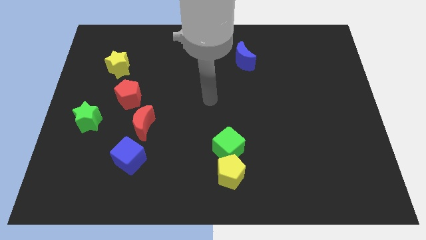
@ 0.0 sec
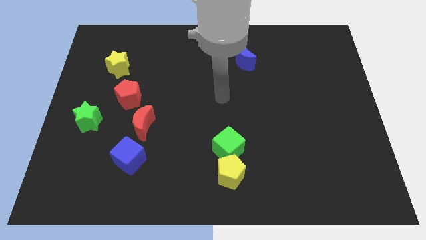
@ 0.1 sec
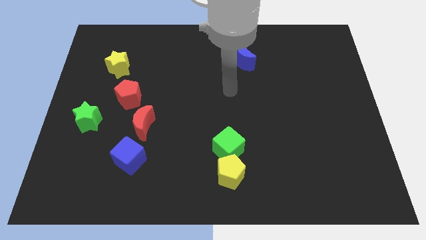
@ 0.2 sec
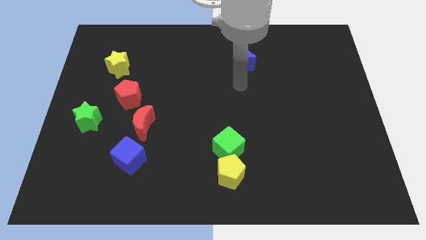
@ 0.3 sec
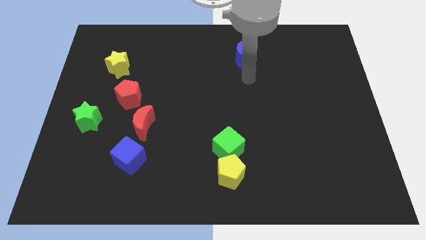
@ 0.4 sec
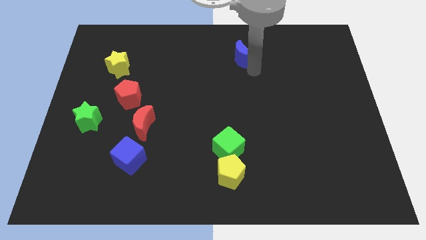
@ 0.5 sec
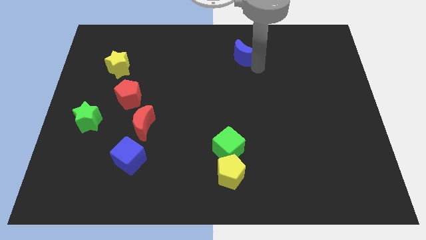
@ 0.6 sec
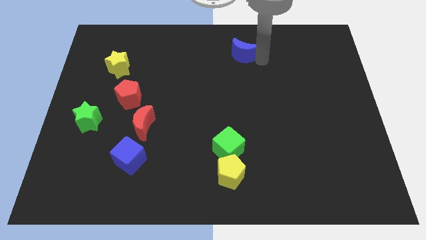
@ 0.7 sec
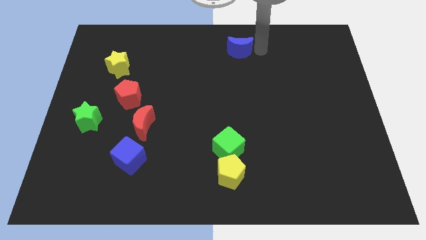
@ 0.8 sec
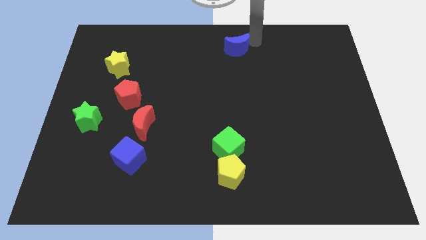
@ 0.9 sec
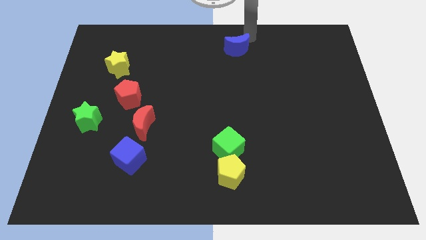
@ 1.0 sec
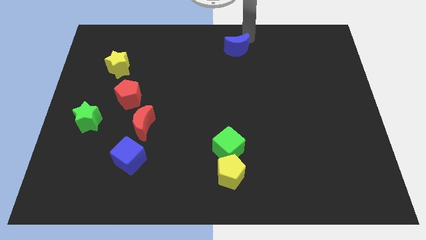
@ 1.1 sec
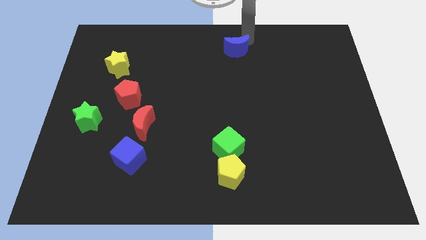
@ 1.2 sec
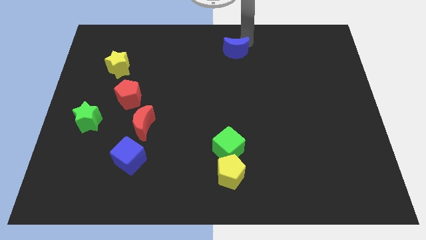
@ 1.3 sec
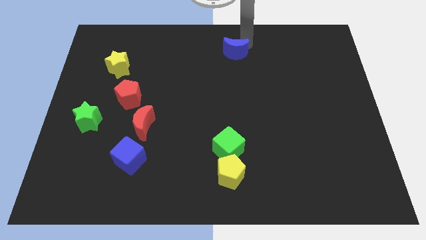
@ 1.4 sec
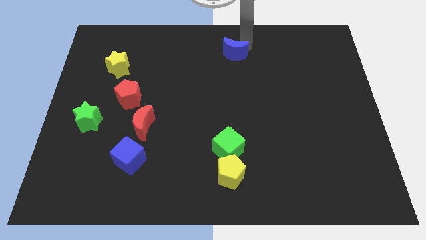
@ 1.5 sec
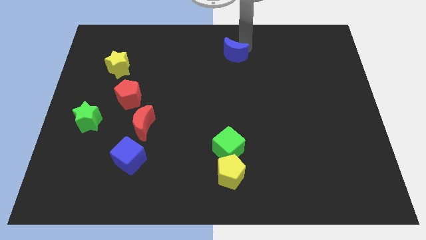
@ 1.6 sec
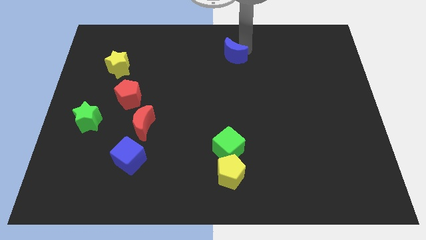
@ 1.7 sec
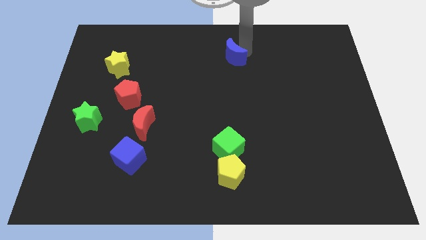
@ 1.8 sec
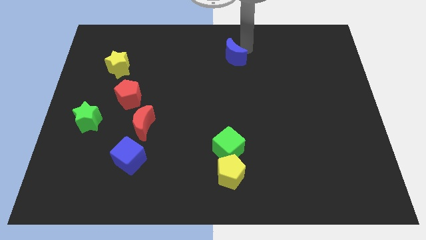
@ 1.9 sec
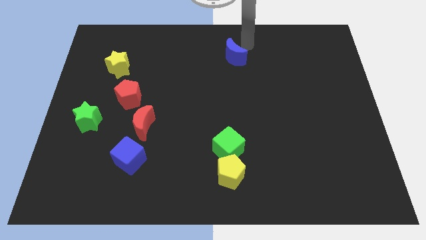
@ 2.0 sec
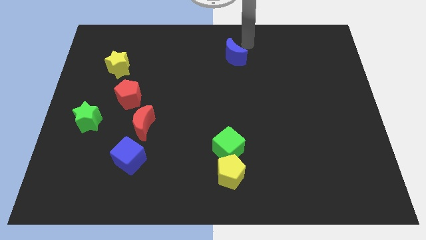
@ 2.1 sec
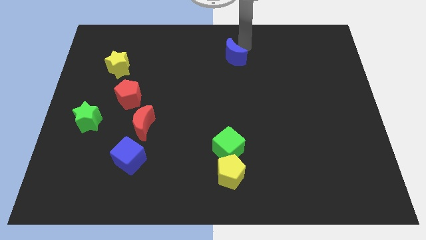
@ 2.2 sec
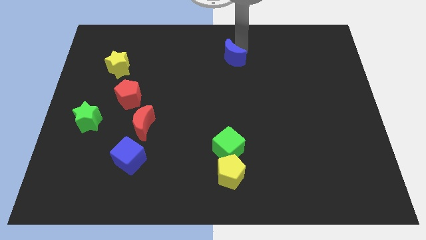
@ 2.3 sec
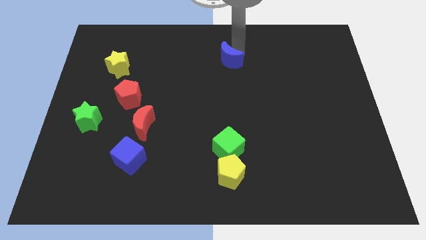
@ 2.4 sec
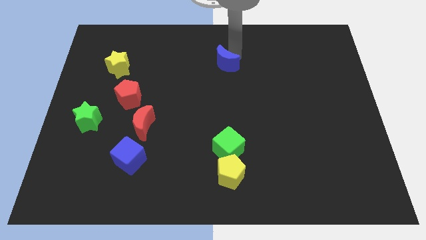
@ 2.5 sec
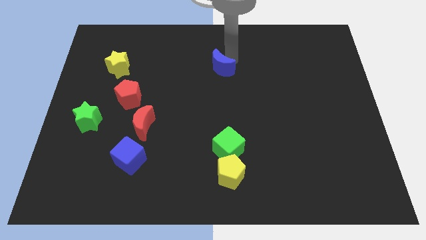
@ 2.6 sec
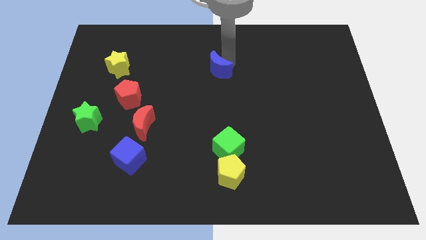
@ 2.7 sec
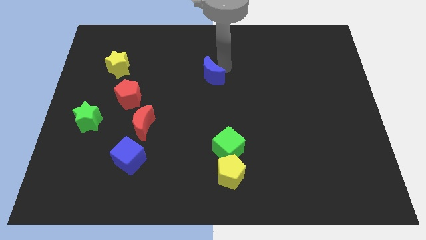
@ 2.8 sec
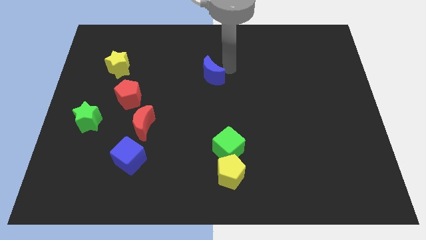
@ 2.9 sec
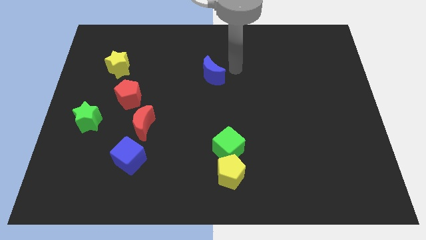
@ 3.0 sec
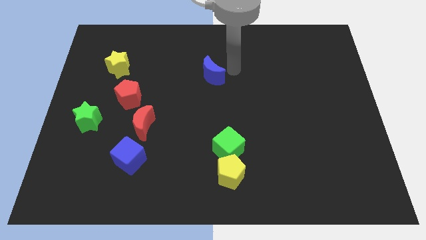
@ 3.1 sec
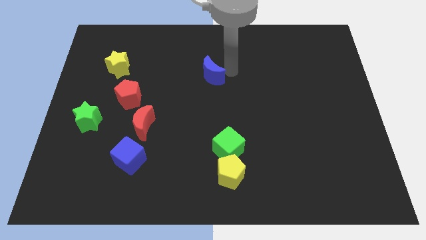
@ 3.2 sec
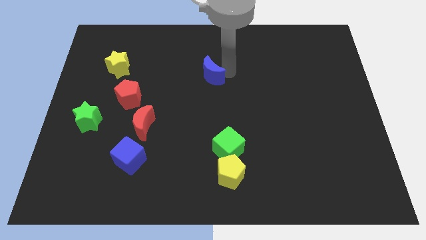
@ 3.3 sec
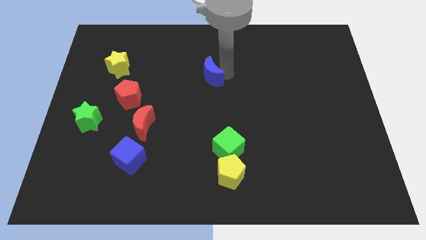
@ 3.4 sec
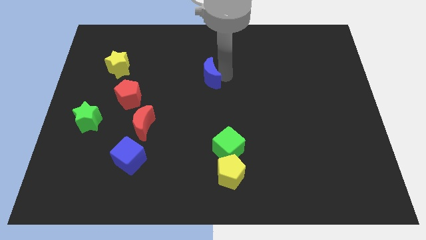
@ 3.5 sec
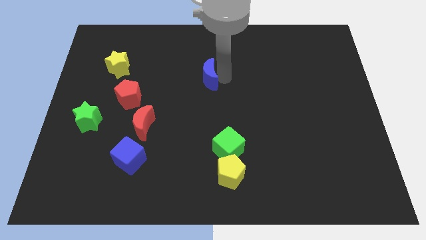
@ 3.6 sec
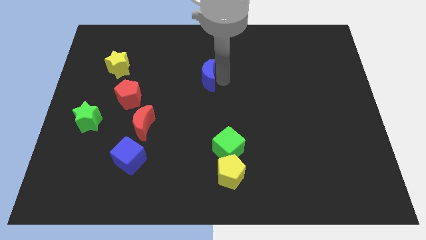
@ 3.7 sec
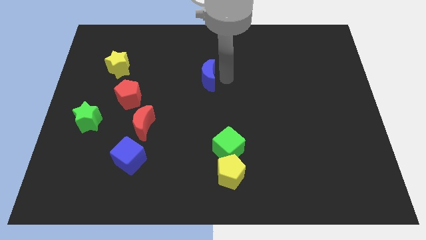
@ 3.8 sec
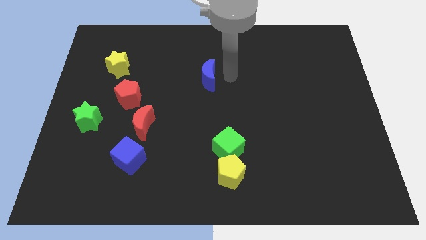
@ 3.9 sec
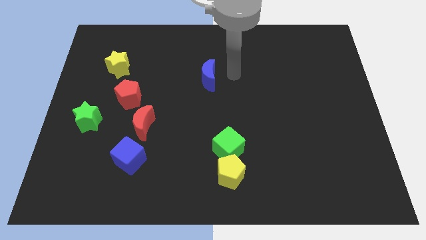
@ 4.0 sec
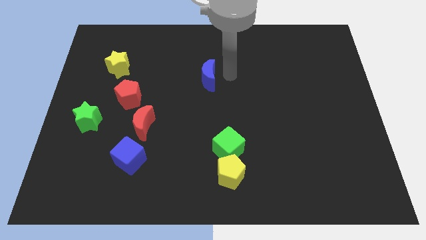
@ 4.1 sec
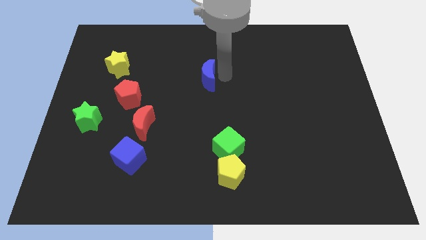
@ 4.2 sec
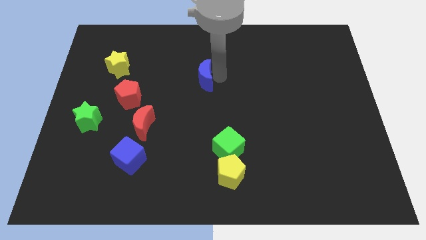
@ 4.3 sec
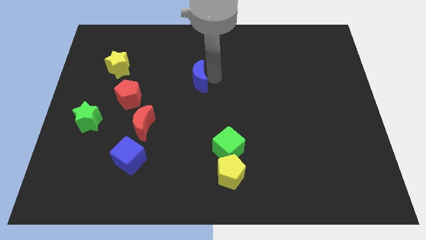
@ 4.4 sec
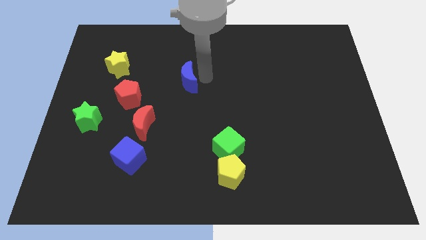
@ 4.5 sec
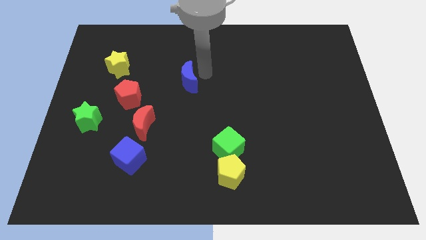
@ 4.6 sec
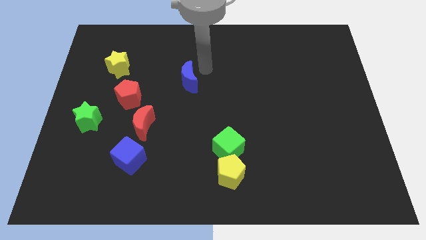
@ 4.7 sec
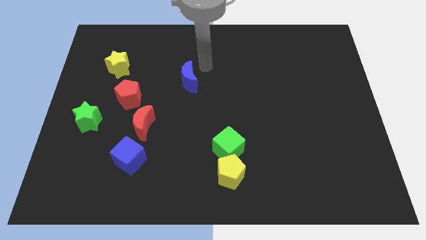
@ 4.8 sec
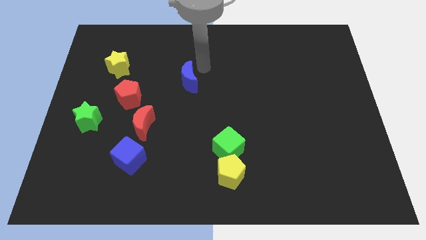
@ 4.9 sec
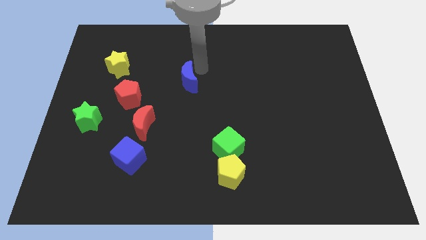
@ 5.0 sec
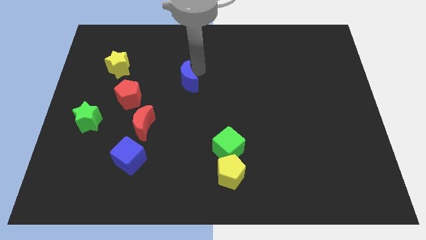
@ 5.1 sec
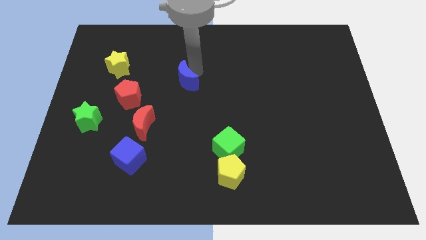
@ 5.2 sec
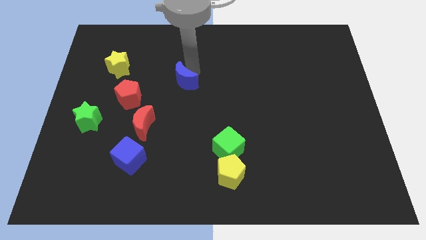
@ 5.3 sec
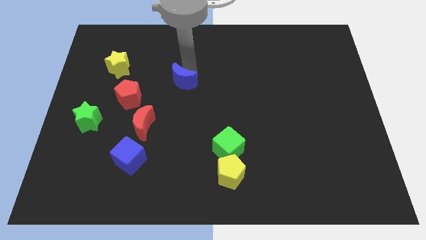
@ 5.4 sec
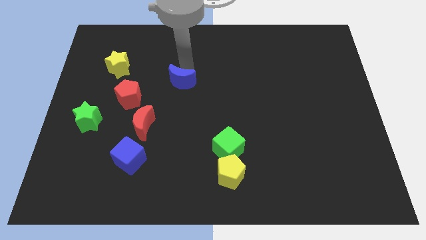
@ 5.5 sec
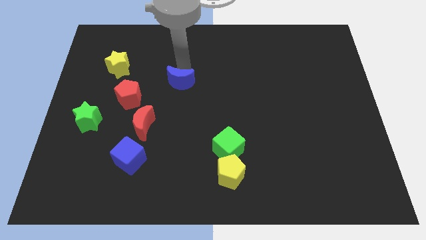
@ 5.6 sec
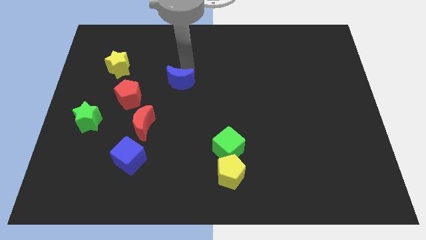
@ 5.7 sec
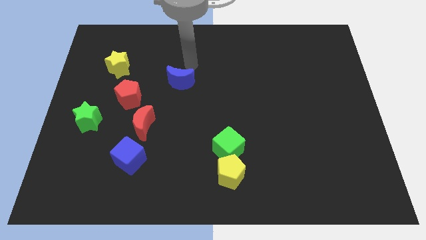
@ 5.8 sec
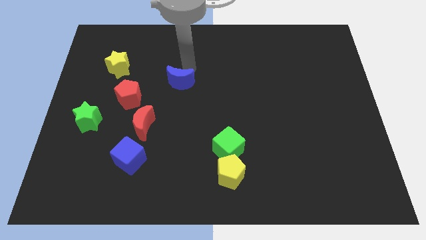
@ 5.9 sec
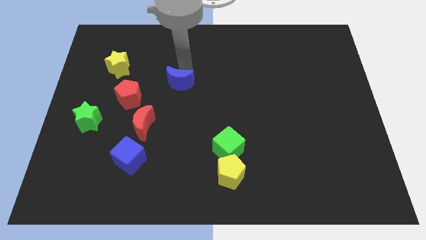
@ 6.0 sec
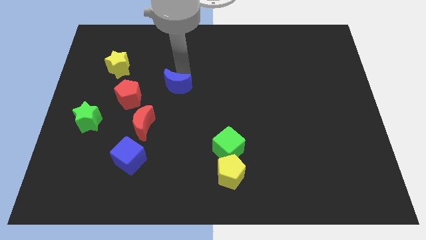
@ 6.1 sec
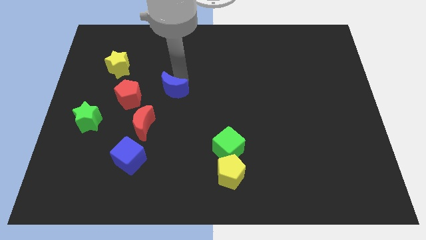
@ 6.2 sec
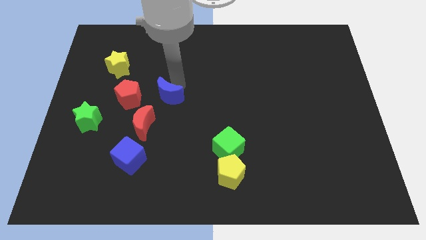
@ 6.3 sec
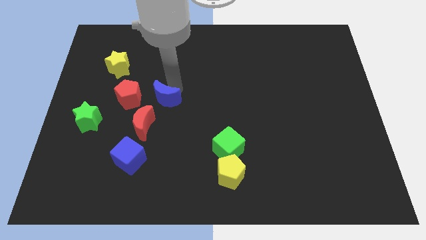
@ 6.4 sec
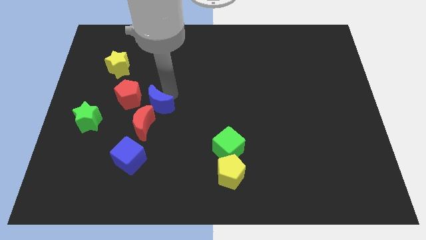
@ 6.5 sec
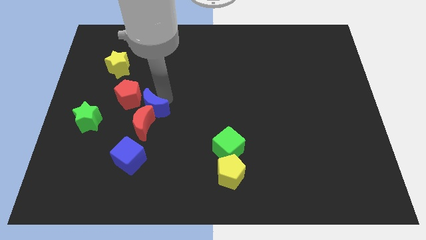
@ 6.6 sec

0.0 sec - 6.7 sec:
put the blue moon towards the red moon
